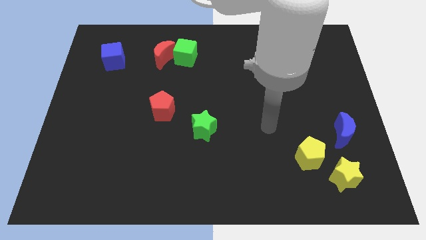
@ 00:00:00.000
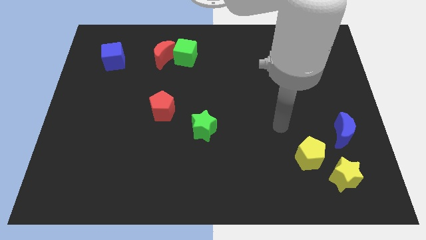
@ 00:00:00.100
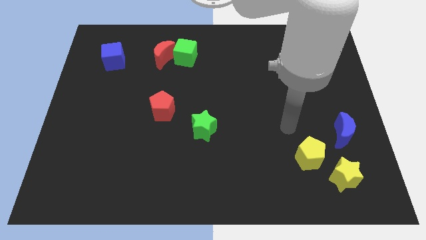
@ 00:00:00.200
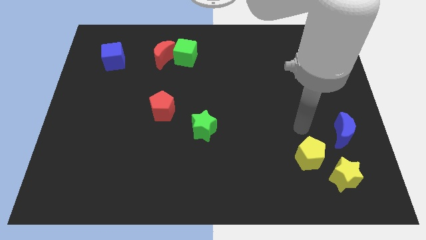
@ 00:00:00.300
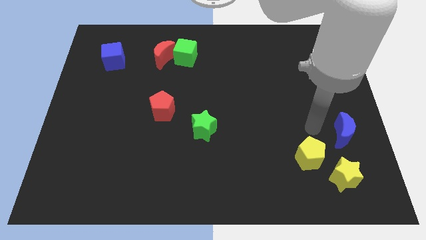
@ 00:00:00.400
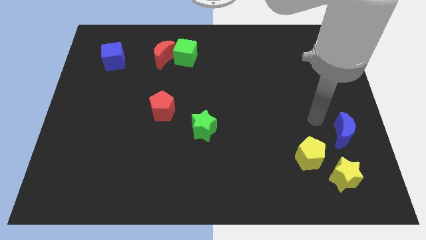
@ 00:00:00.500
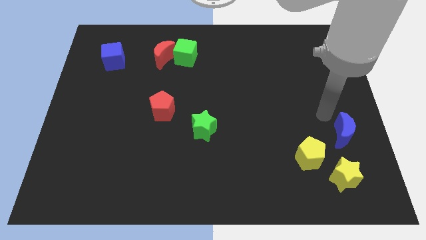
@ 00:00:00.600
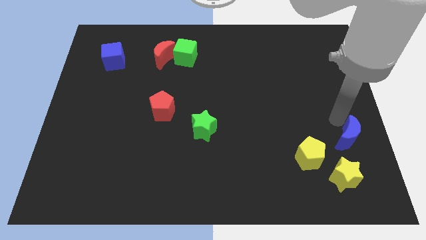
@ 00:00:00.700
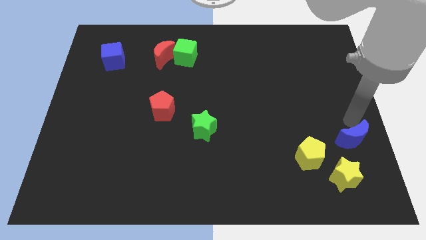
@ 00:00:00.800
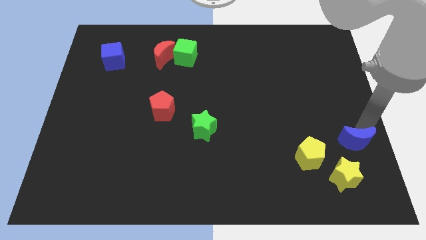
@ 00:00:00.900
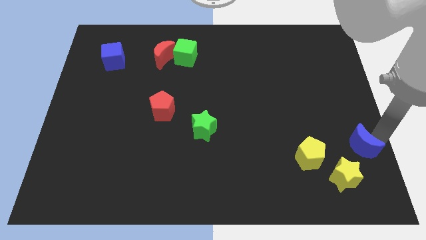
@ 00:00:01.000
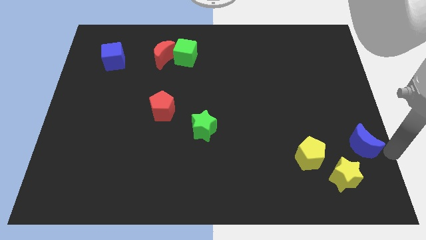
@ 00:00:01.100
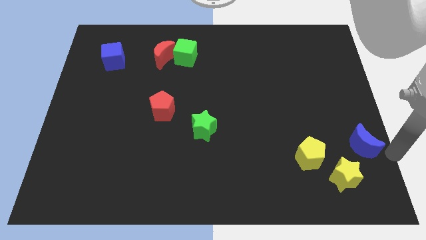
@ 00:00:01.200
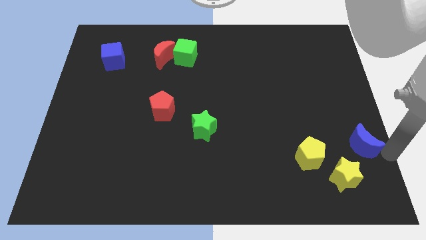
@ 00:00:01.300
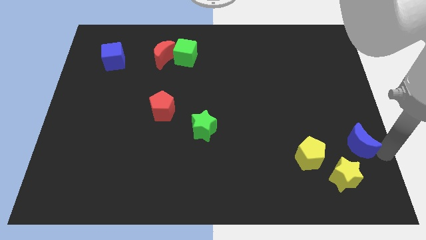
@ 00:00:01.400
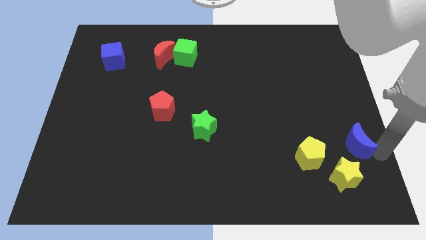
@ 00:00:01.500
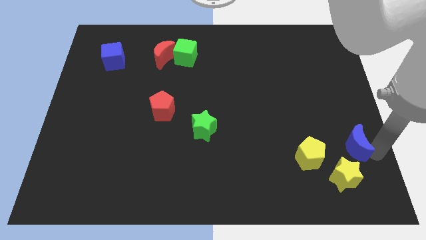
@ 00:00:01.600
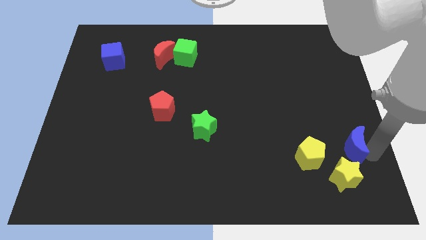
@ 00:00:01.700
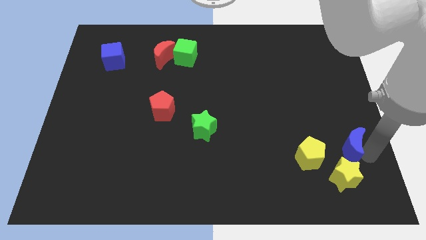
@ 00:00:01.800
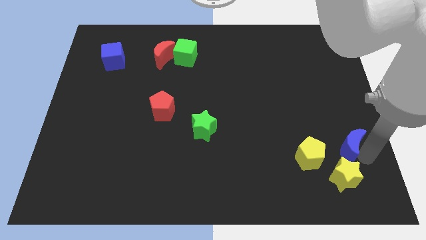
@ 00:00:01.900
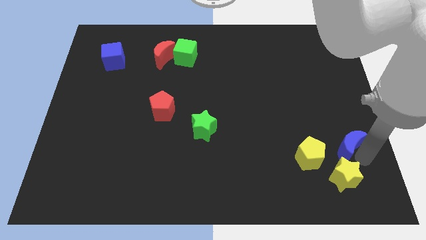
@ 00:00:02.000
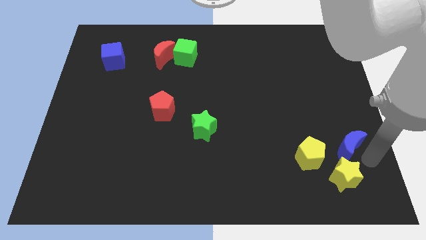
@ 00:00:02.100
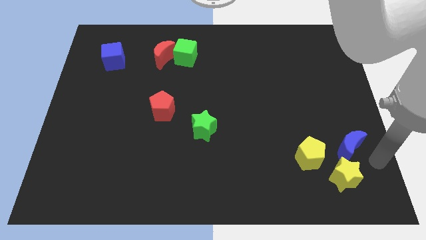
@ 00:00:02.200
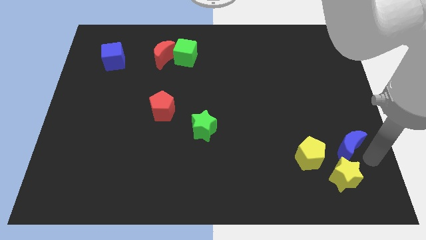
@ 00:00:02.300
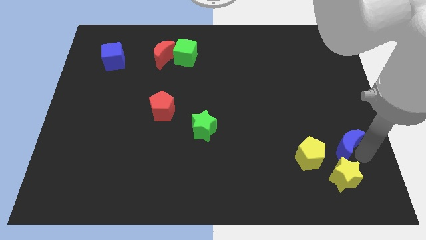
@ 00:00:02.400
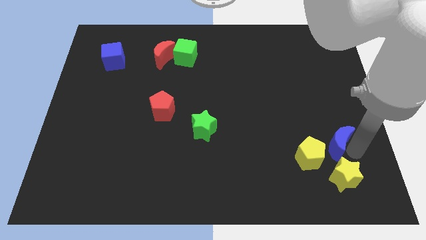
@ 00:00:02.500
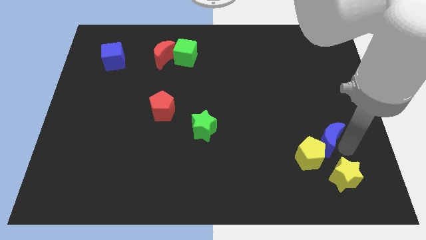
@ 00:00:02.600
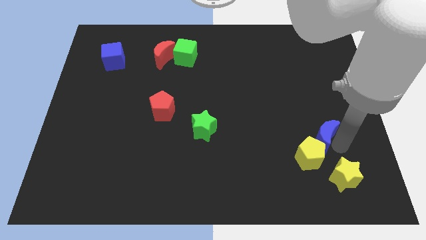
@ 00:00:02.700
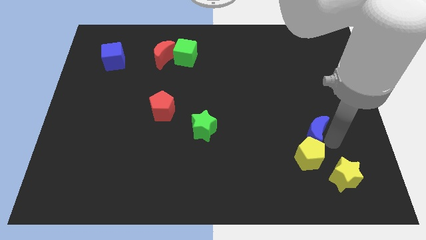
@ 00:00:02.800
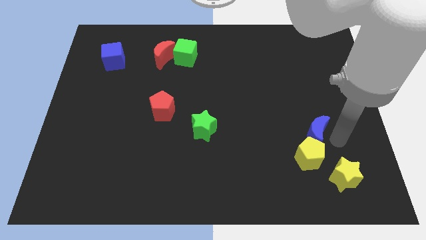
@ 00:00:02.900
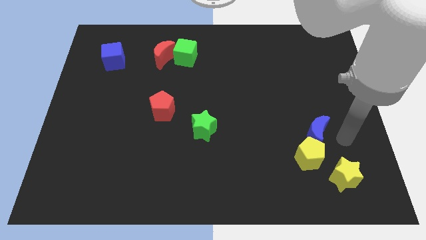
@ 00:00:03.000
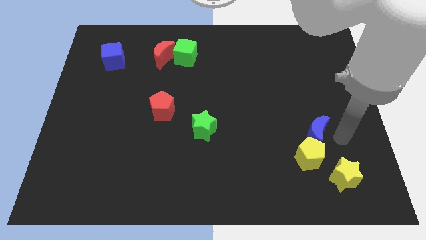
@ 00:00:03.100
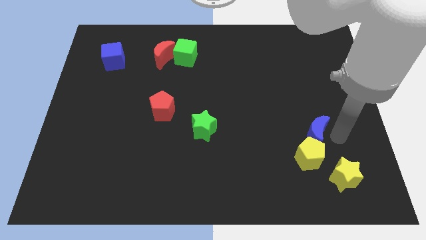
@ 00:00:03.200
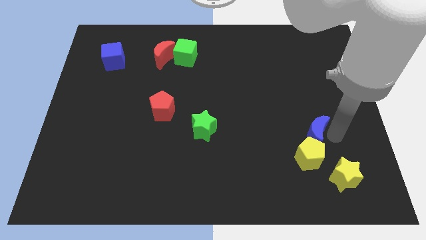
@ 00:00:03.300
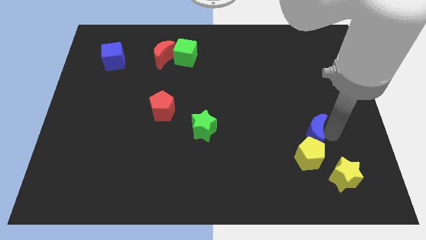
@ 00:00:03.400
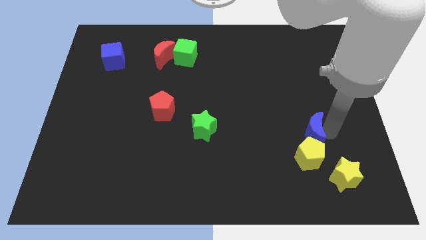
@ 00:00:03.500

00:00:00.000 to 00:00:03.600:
slide the blue moon somewhat left

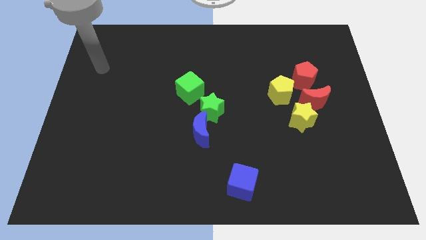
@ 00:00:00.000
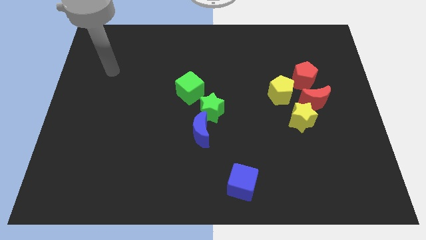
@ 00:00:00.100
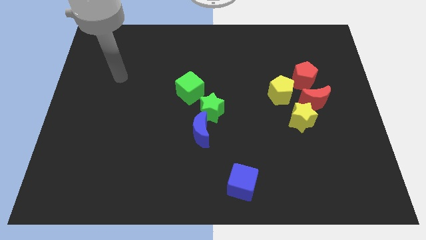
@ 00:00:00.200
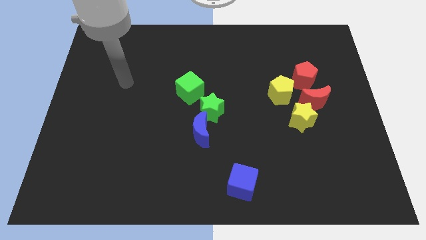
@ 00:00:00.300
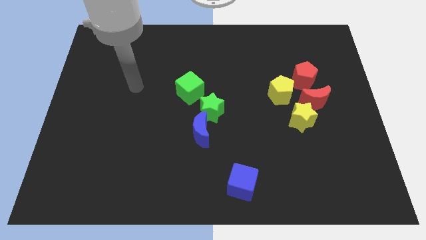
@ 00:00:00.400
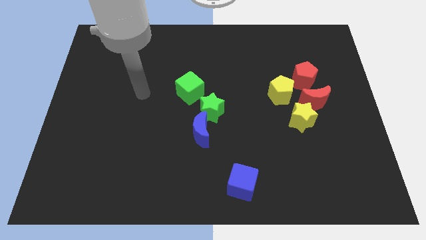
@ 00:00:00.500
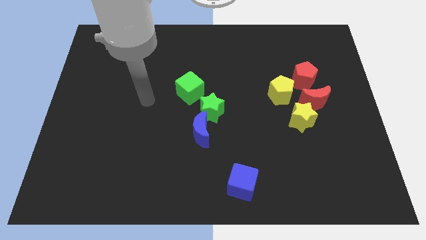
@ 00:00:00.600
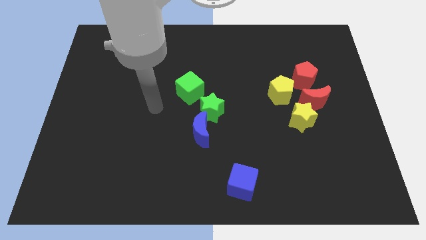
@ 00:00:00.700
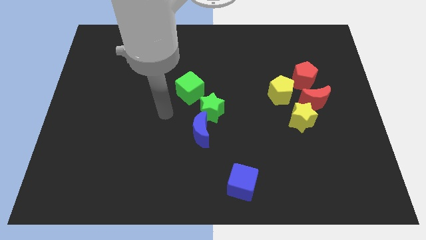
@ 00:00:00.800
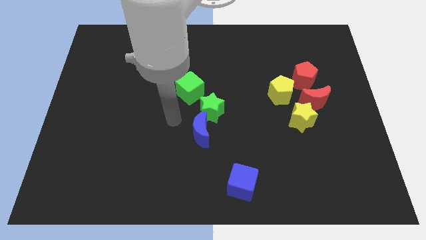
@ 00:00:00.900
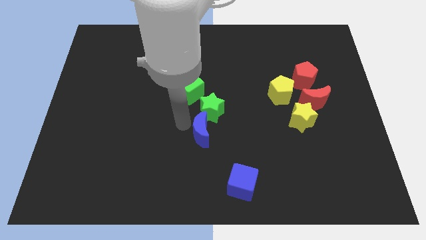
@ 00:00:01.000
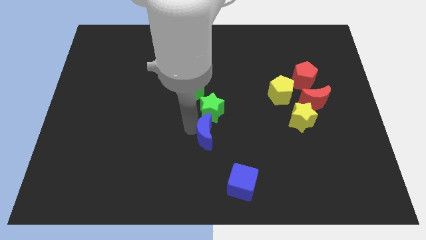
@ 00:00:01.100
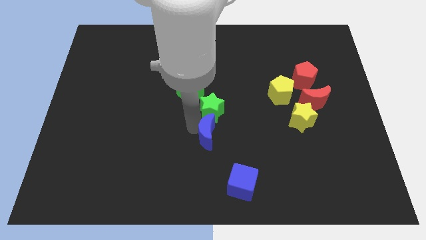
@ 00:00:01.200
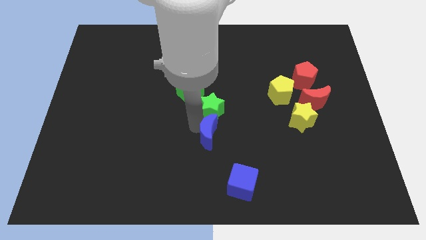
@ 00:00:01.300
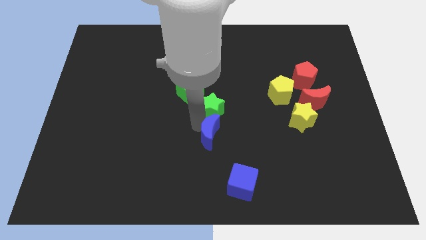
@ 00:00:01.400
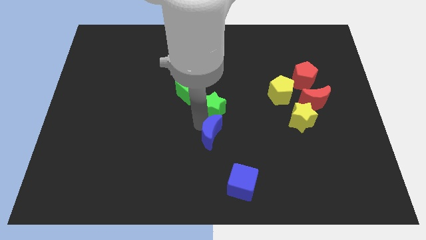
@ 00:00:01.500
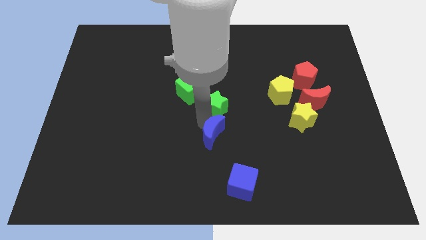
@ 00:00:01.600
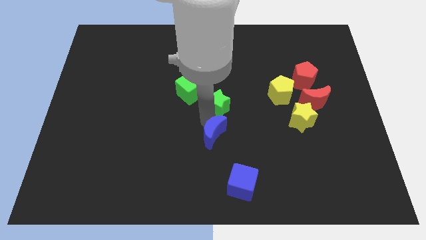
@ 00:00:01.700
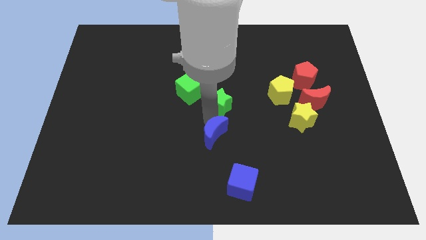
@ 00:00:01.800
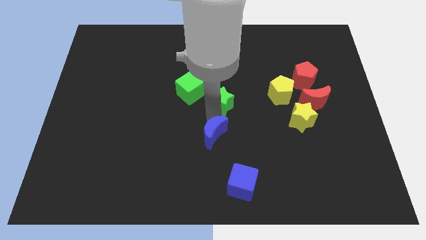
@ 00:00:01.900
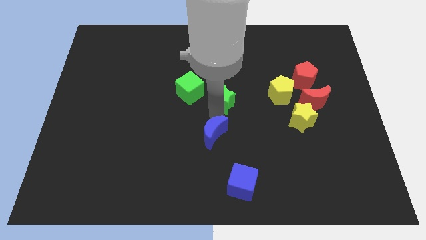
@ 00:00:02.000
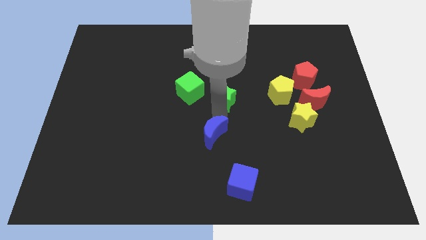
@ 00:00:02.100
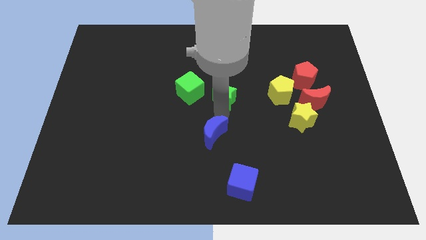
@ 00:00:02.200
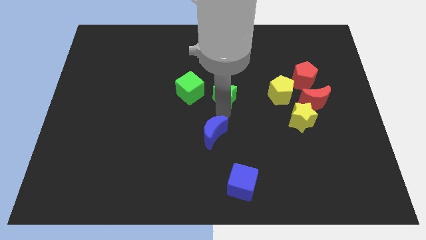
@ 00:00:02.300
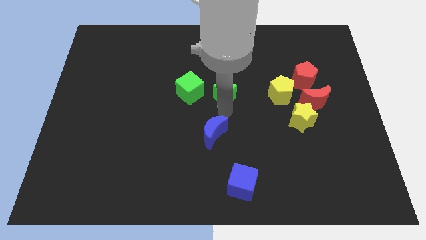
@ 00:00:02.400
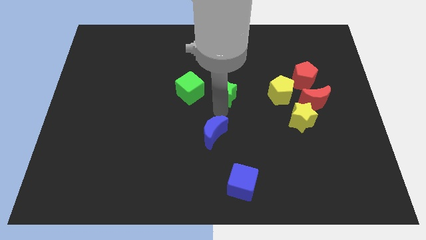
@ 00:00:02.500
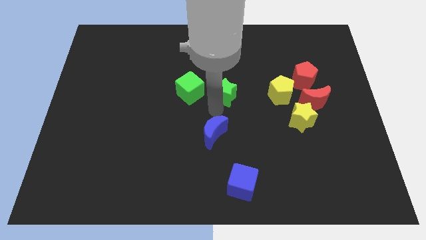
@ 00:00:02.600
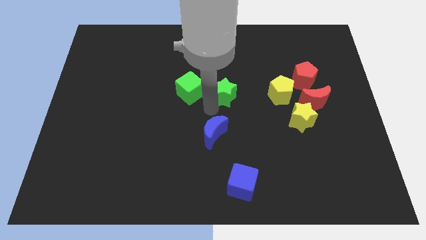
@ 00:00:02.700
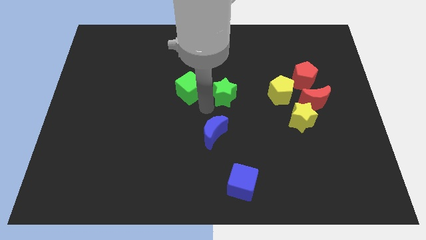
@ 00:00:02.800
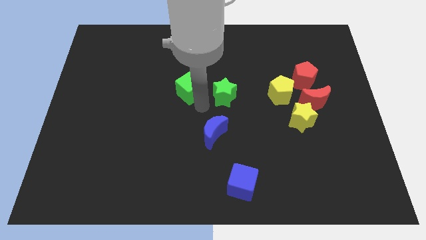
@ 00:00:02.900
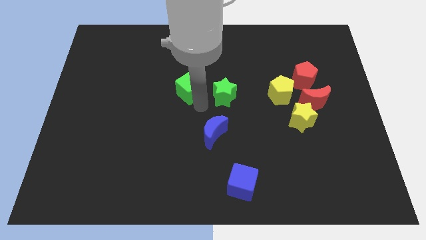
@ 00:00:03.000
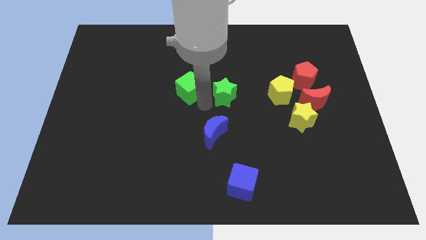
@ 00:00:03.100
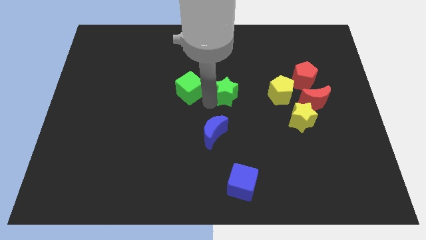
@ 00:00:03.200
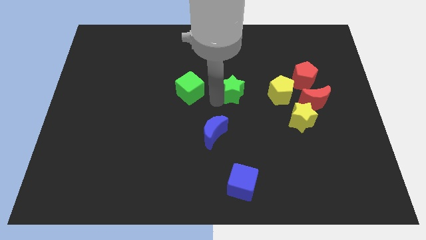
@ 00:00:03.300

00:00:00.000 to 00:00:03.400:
push the green star a little upwards and right

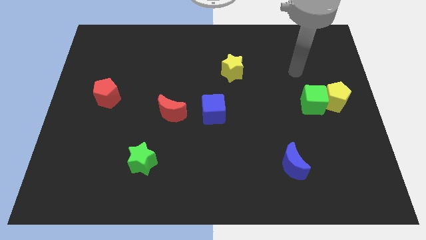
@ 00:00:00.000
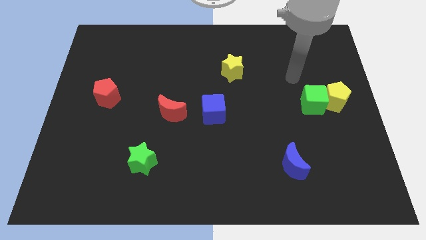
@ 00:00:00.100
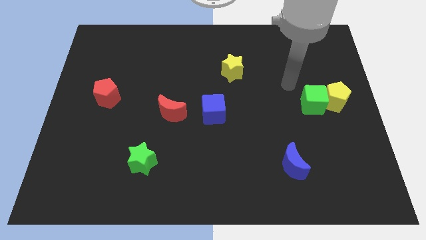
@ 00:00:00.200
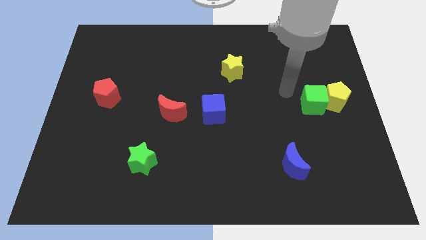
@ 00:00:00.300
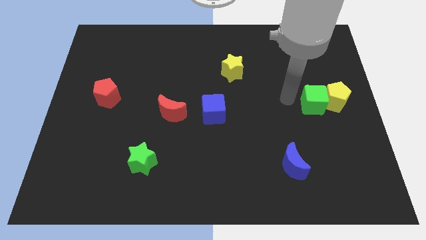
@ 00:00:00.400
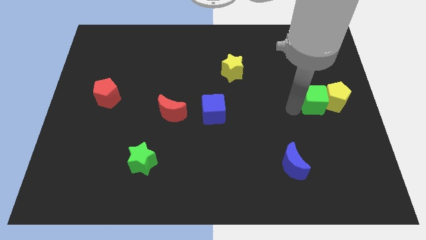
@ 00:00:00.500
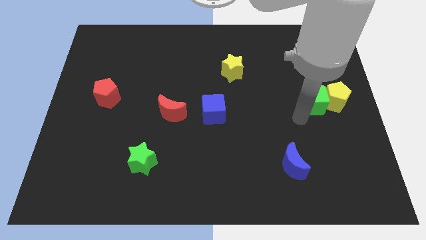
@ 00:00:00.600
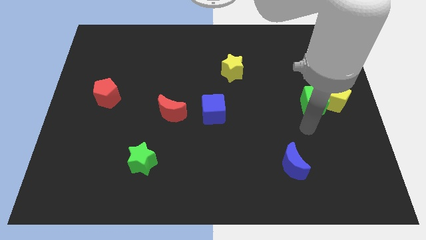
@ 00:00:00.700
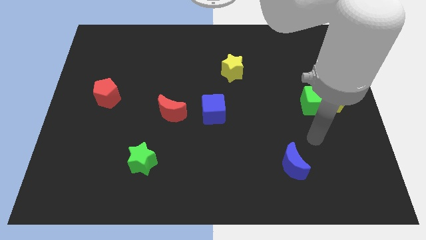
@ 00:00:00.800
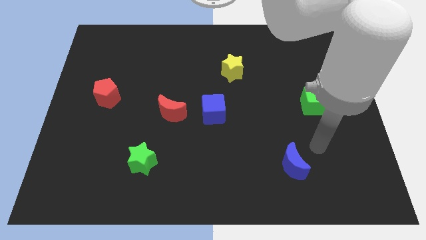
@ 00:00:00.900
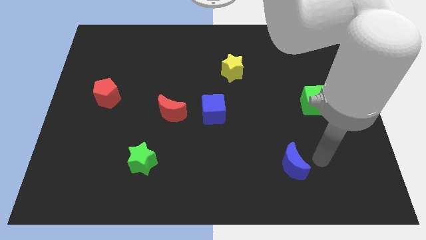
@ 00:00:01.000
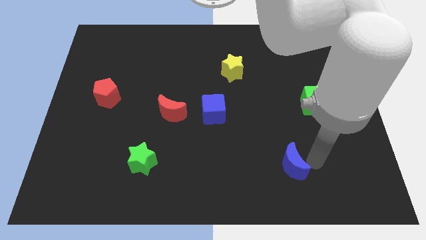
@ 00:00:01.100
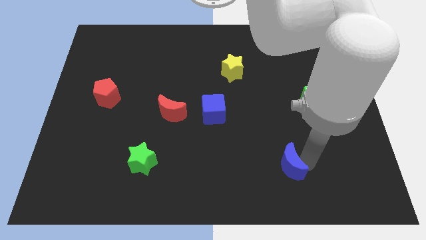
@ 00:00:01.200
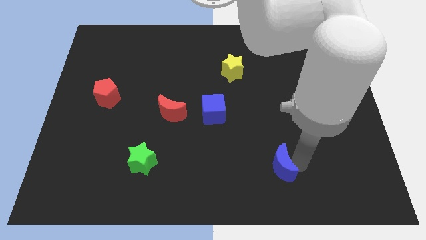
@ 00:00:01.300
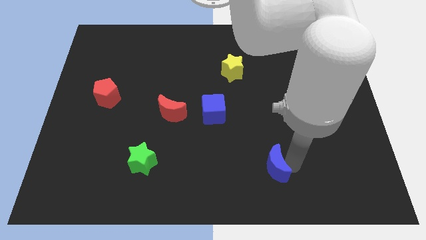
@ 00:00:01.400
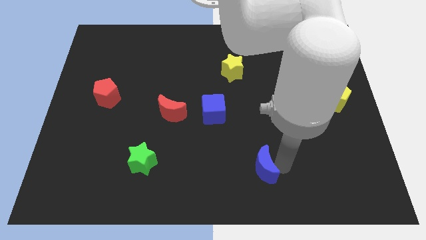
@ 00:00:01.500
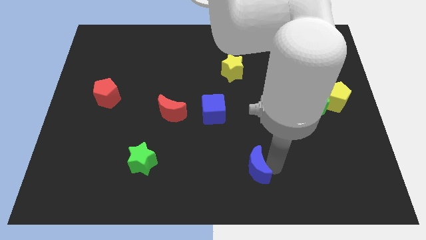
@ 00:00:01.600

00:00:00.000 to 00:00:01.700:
slightly push the blue moon left
